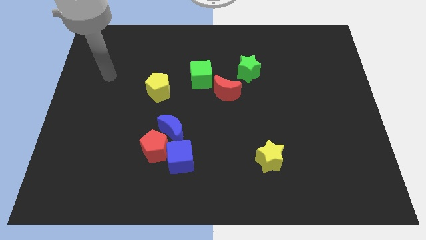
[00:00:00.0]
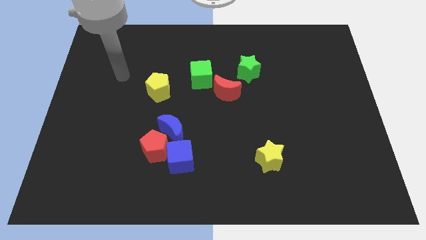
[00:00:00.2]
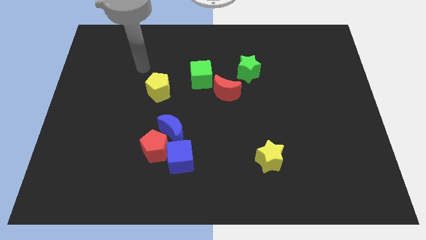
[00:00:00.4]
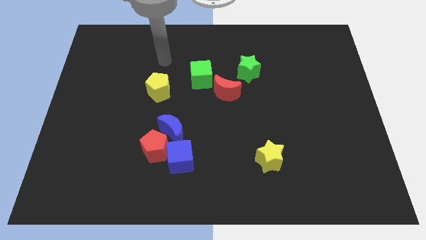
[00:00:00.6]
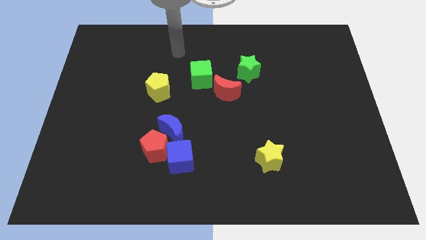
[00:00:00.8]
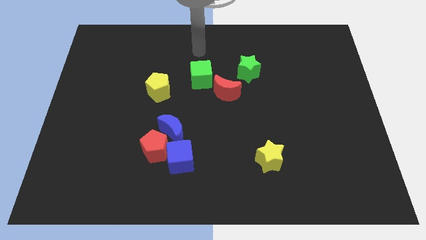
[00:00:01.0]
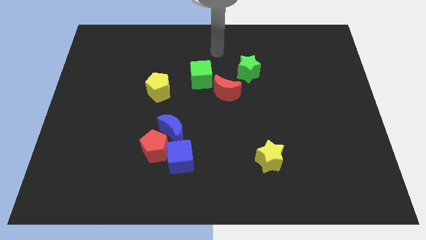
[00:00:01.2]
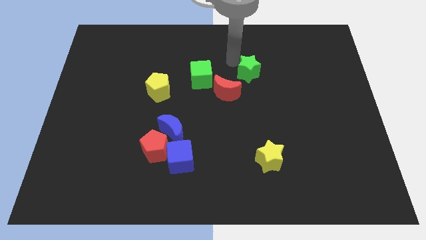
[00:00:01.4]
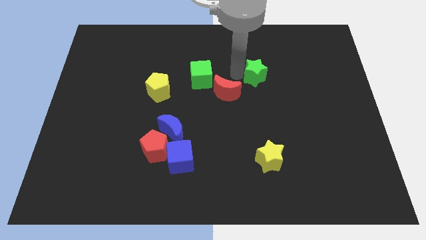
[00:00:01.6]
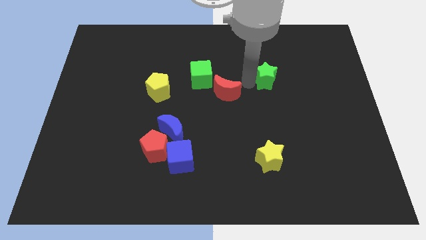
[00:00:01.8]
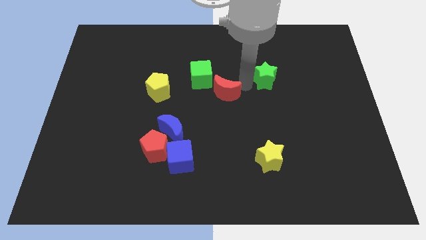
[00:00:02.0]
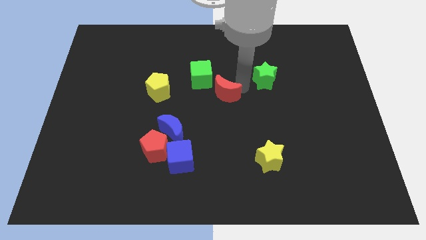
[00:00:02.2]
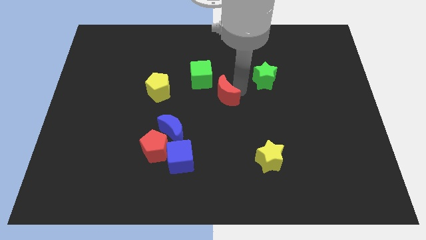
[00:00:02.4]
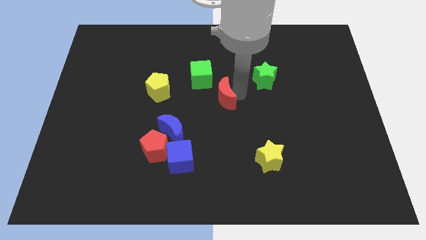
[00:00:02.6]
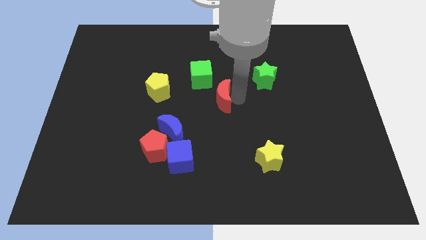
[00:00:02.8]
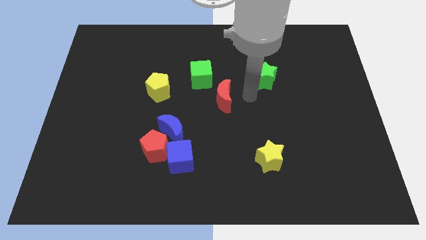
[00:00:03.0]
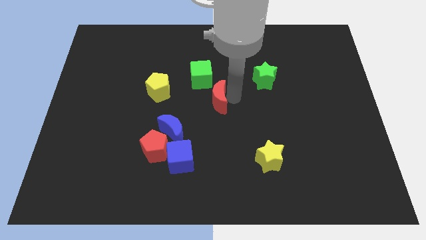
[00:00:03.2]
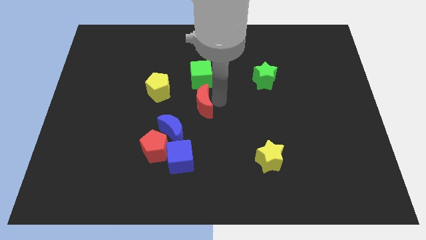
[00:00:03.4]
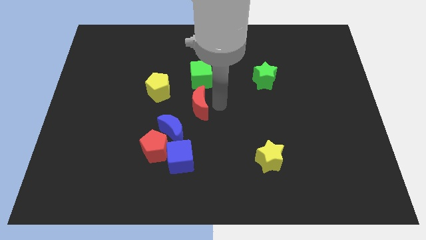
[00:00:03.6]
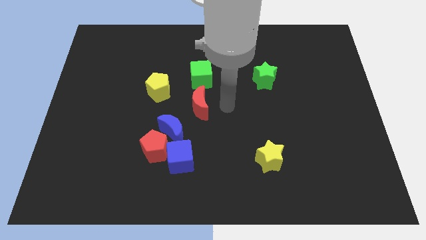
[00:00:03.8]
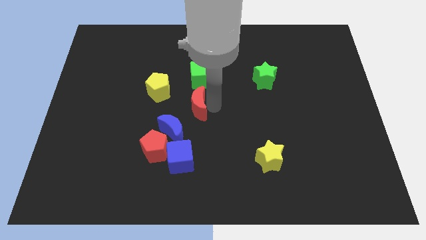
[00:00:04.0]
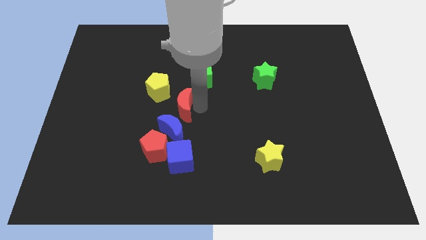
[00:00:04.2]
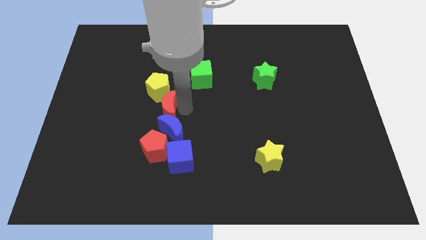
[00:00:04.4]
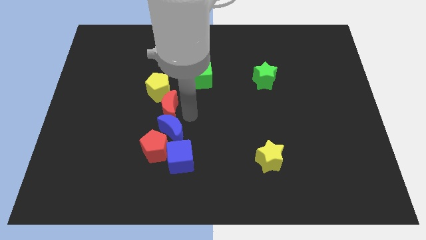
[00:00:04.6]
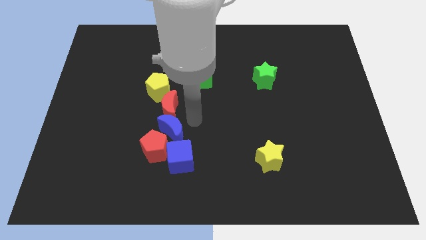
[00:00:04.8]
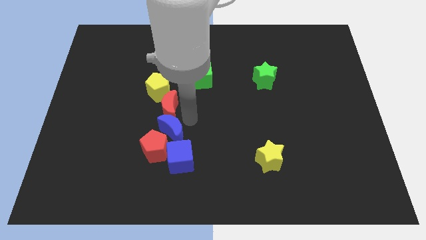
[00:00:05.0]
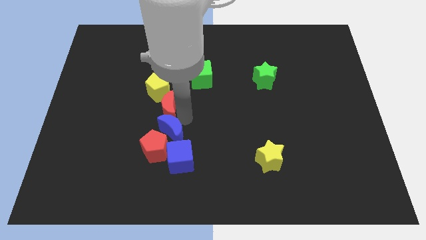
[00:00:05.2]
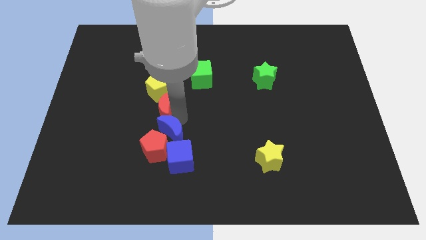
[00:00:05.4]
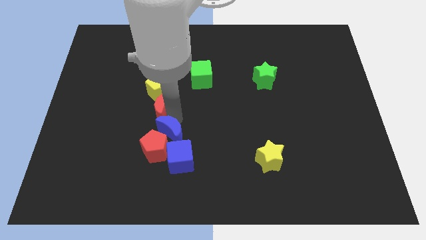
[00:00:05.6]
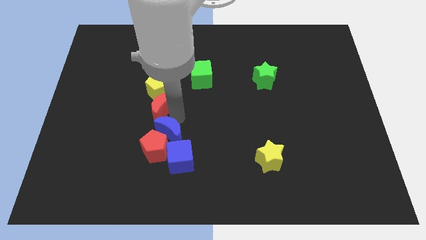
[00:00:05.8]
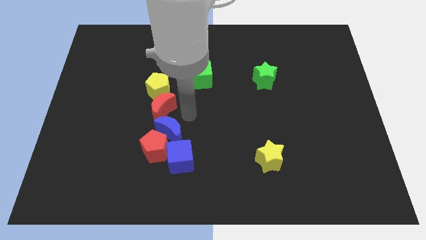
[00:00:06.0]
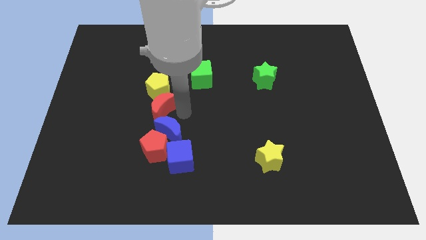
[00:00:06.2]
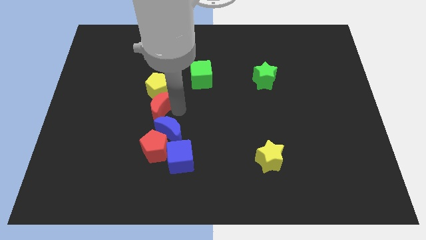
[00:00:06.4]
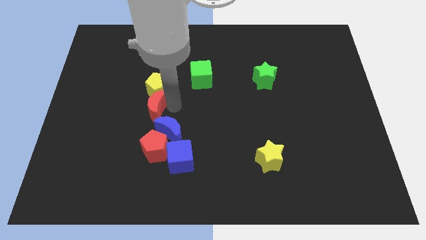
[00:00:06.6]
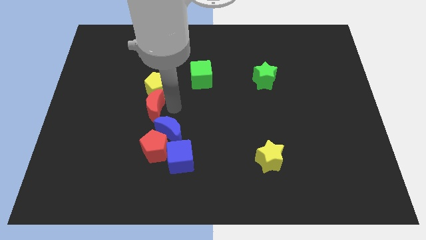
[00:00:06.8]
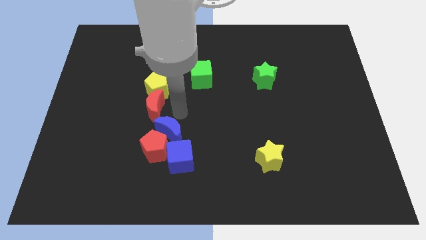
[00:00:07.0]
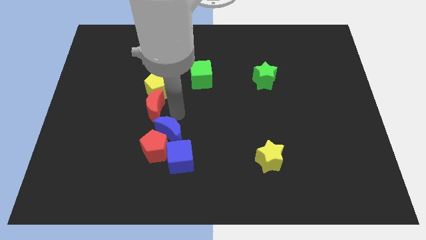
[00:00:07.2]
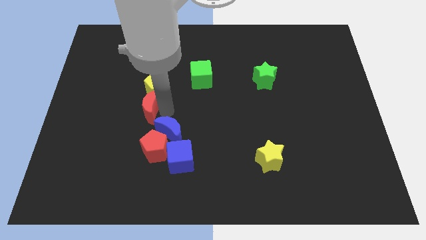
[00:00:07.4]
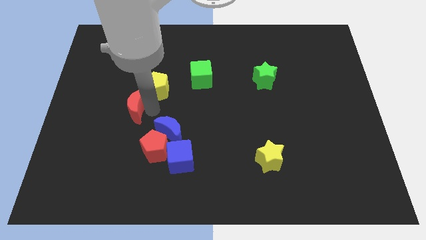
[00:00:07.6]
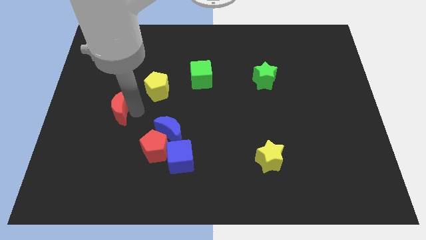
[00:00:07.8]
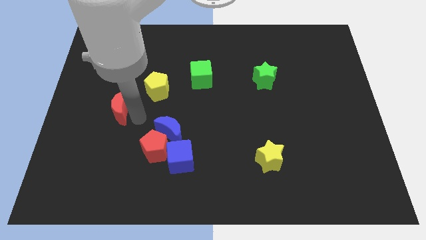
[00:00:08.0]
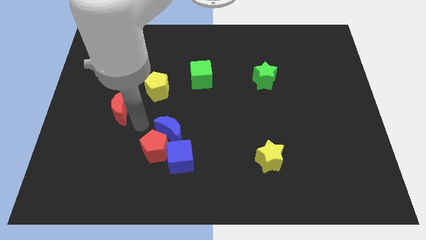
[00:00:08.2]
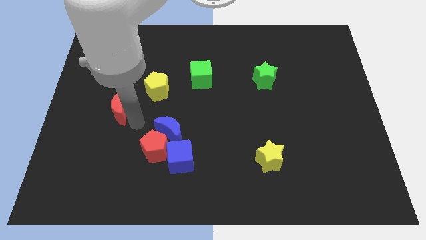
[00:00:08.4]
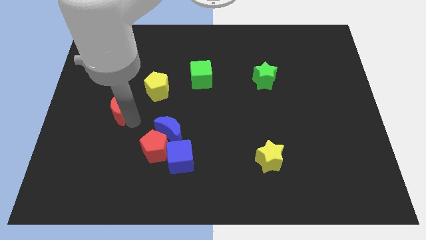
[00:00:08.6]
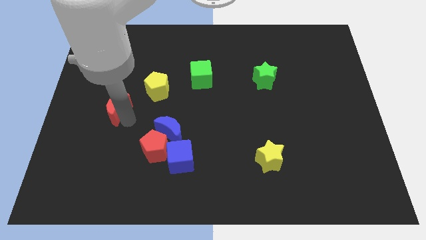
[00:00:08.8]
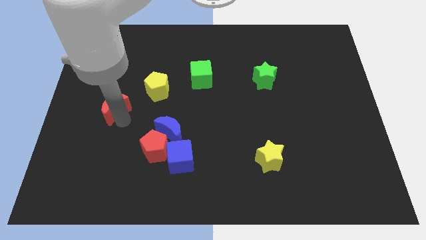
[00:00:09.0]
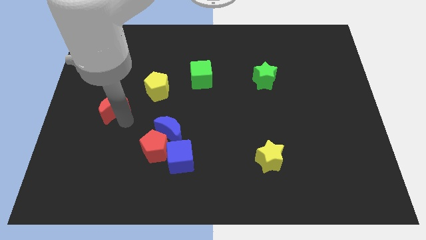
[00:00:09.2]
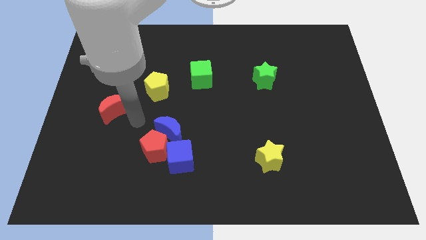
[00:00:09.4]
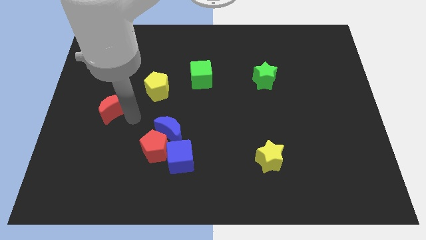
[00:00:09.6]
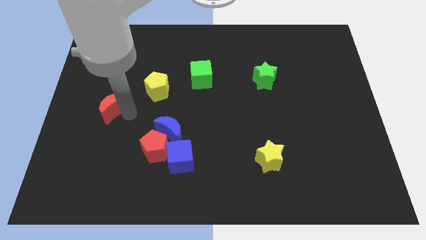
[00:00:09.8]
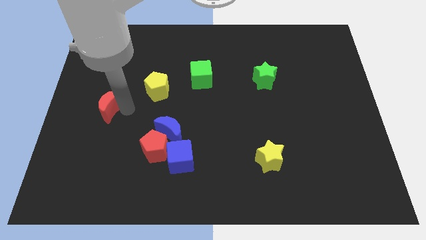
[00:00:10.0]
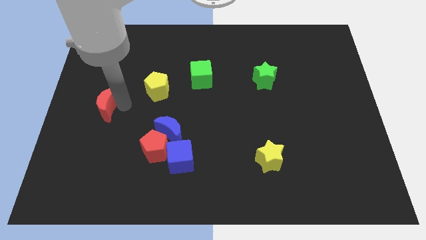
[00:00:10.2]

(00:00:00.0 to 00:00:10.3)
slide the red moon to the center left

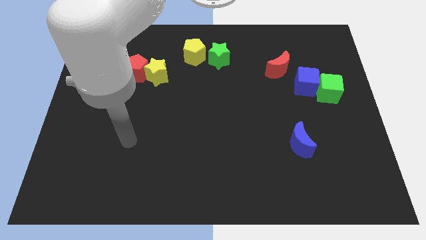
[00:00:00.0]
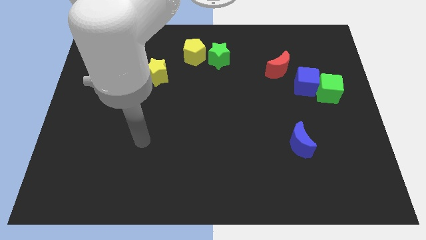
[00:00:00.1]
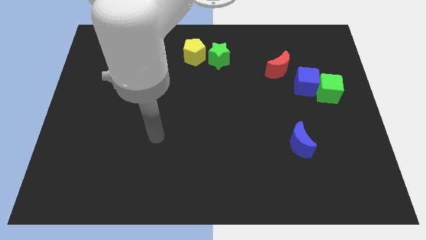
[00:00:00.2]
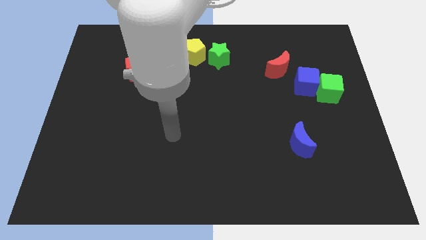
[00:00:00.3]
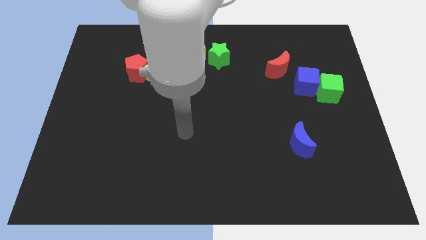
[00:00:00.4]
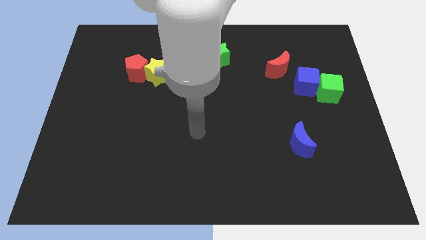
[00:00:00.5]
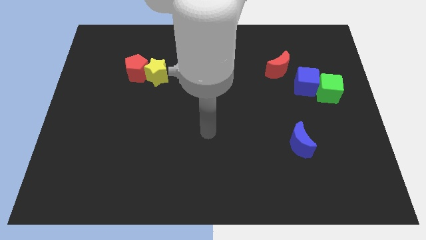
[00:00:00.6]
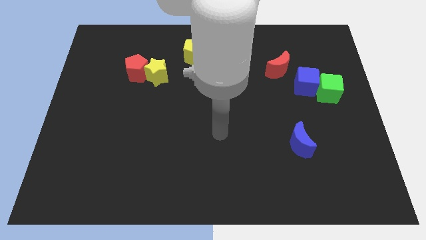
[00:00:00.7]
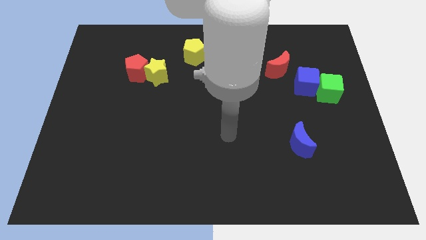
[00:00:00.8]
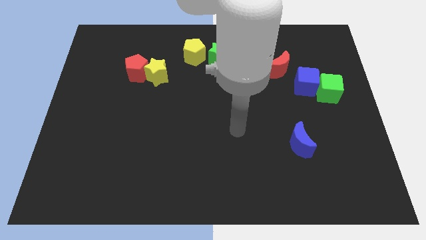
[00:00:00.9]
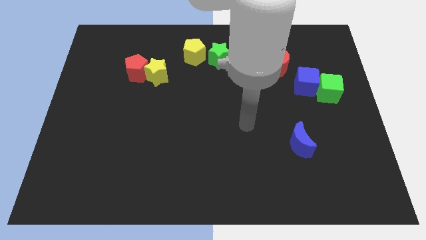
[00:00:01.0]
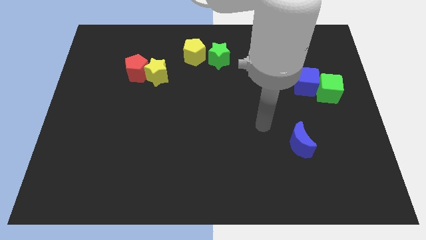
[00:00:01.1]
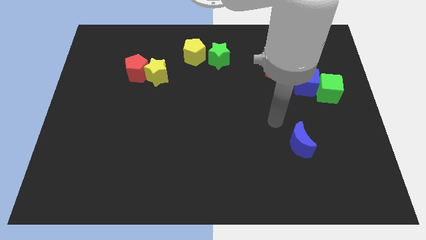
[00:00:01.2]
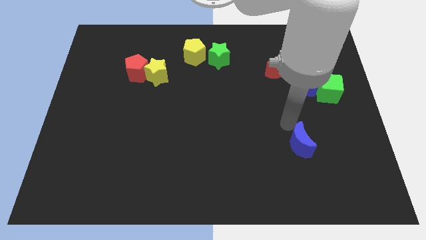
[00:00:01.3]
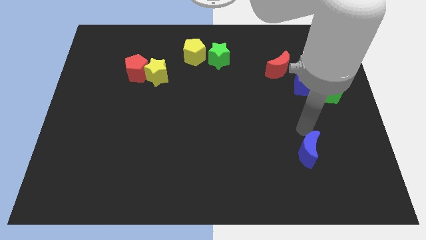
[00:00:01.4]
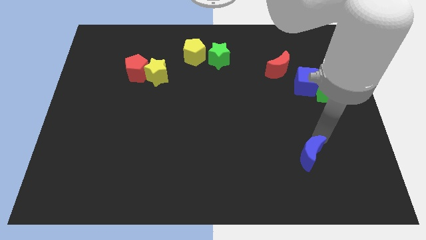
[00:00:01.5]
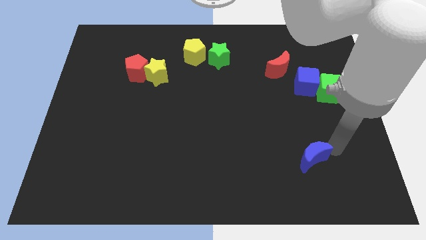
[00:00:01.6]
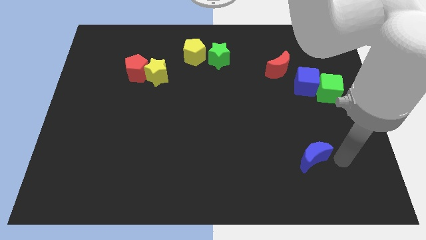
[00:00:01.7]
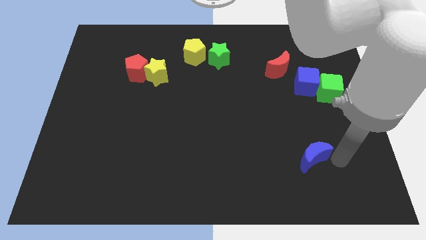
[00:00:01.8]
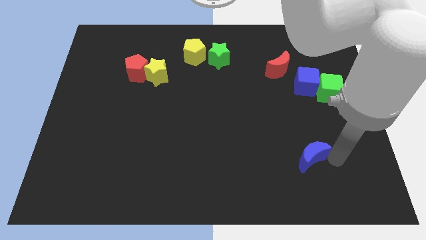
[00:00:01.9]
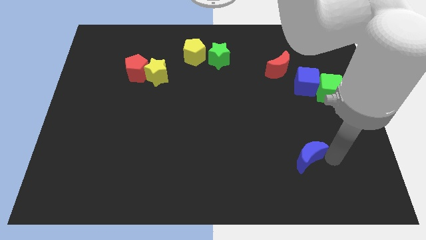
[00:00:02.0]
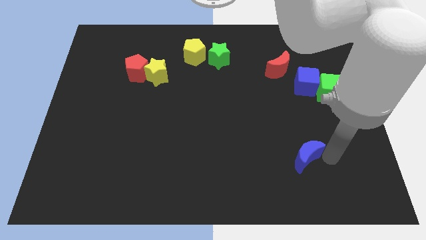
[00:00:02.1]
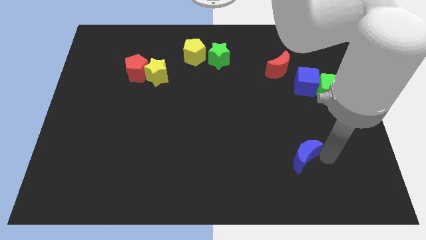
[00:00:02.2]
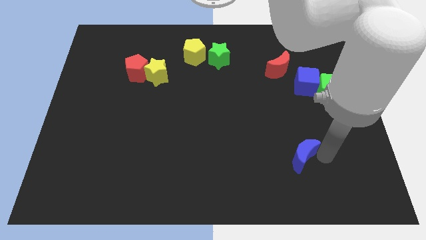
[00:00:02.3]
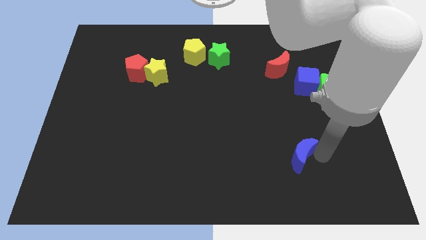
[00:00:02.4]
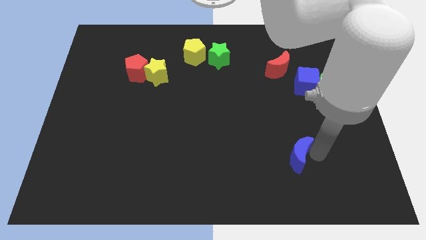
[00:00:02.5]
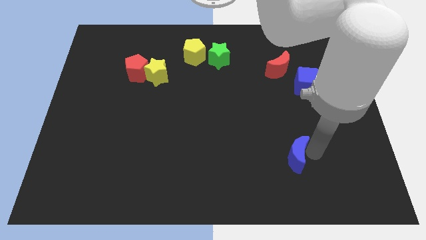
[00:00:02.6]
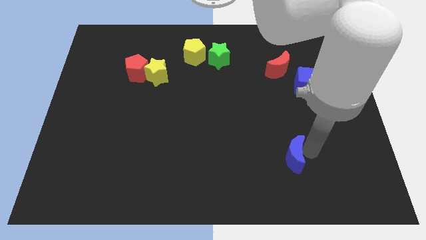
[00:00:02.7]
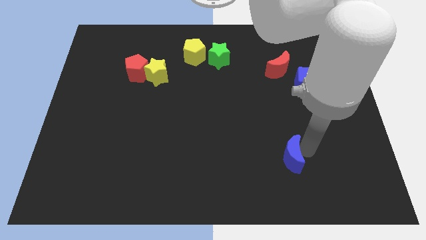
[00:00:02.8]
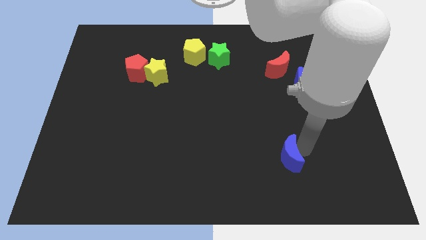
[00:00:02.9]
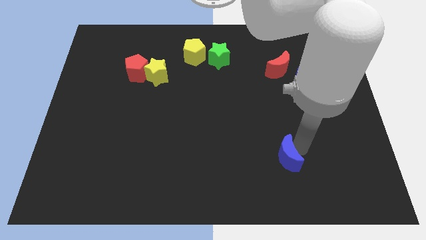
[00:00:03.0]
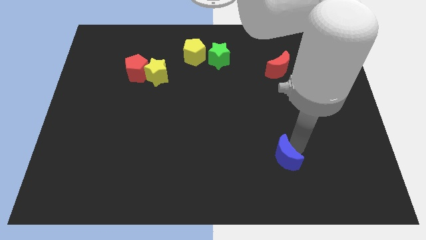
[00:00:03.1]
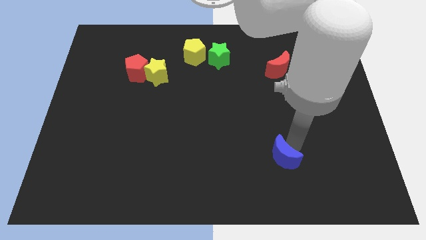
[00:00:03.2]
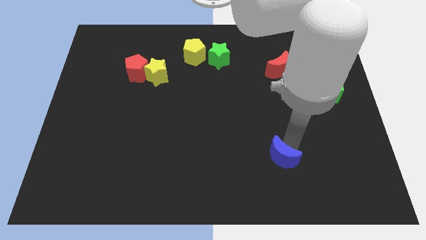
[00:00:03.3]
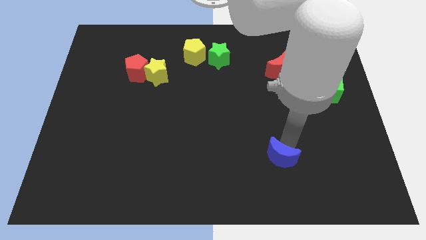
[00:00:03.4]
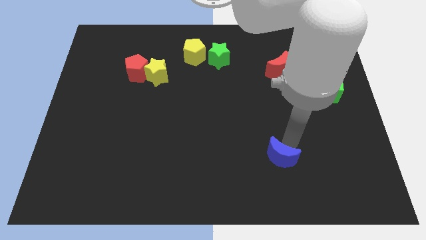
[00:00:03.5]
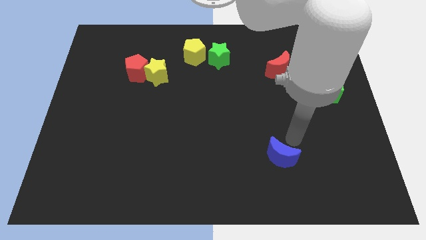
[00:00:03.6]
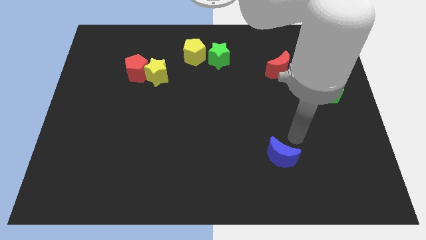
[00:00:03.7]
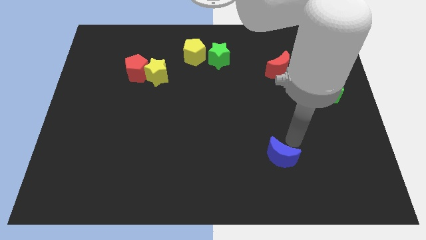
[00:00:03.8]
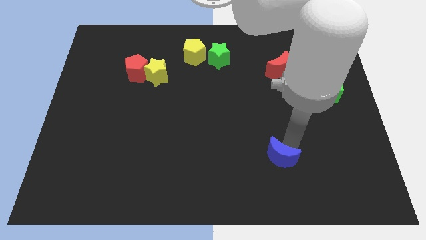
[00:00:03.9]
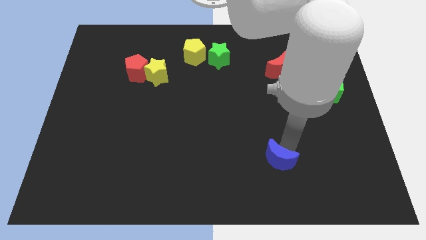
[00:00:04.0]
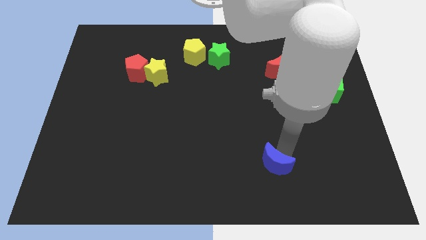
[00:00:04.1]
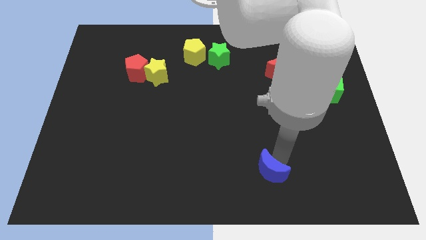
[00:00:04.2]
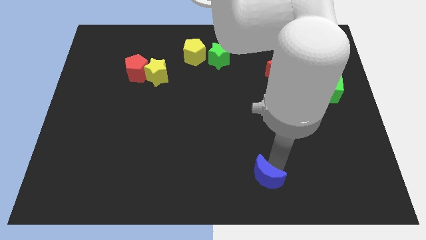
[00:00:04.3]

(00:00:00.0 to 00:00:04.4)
push the blue moon to the bottom
